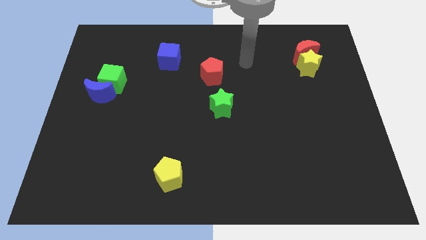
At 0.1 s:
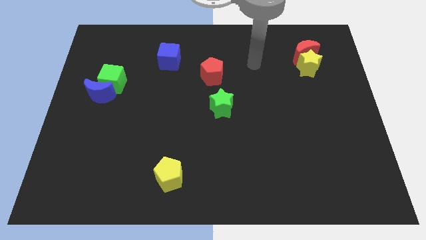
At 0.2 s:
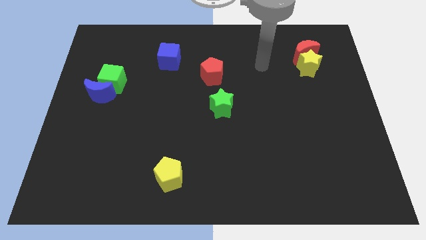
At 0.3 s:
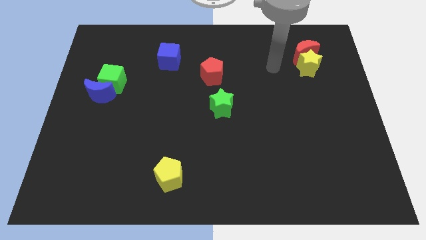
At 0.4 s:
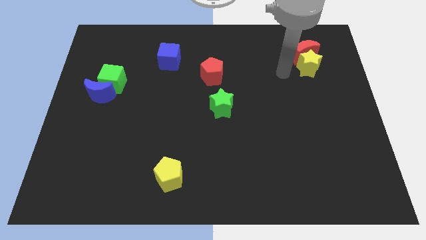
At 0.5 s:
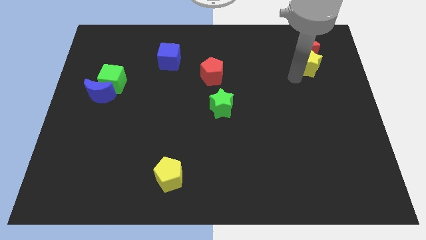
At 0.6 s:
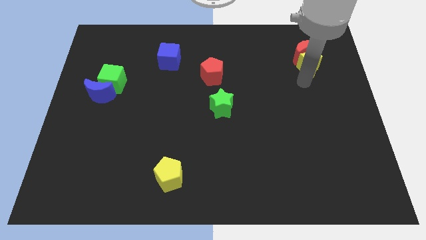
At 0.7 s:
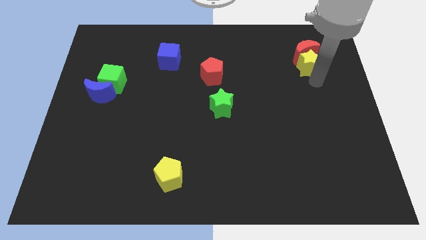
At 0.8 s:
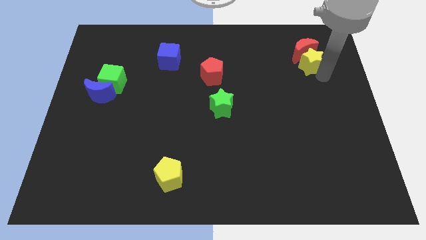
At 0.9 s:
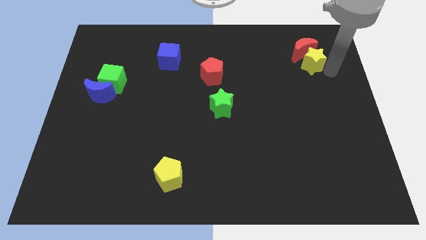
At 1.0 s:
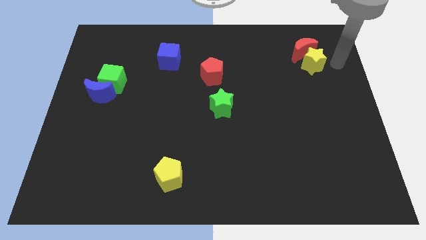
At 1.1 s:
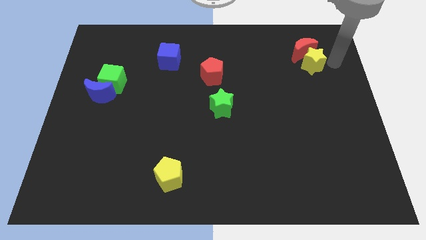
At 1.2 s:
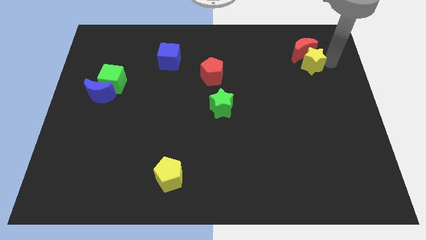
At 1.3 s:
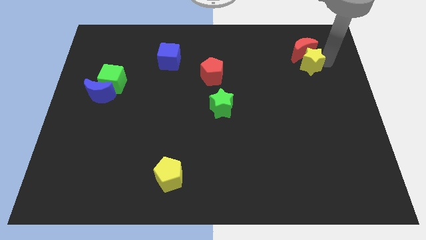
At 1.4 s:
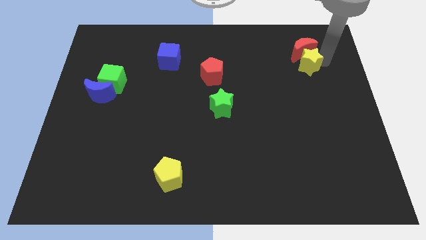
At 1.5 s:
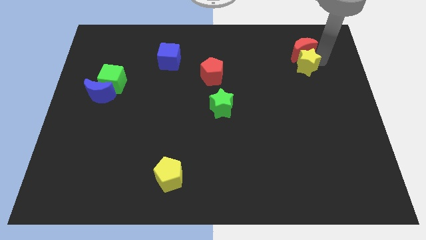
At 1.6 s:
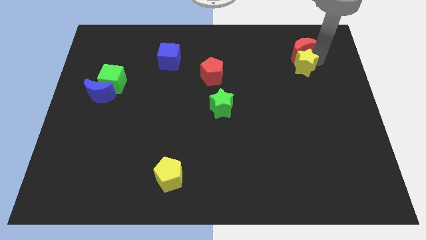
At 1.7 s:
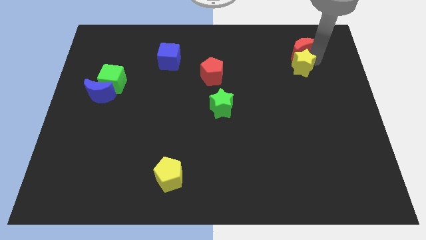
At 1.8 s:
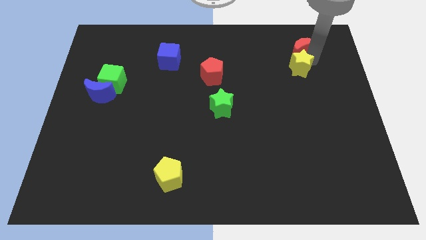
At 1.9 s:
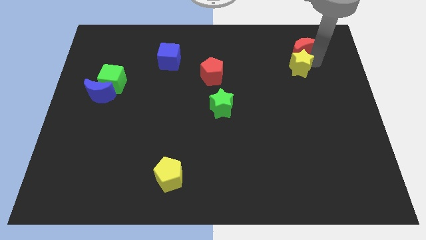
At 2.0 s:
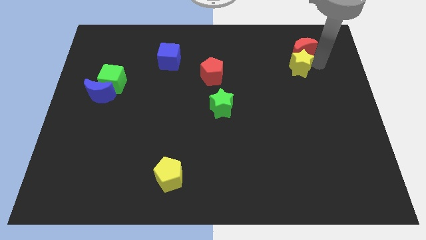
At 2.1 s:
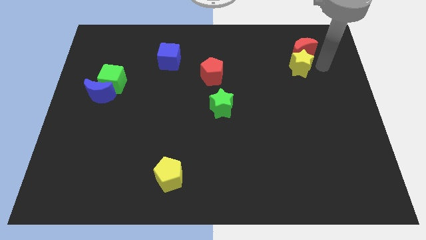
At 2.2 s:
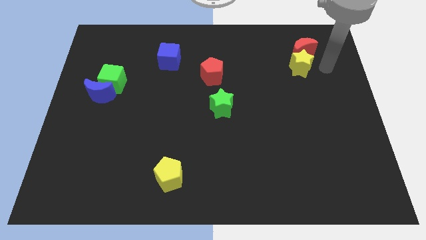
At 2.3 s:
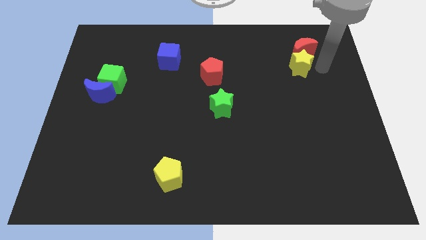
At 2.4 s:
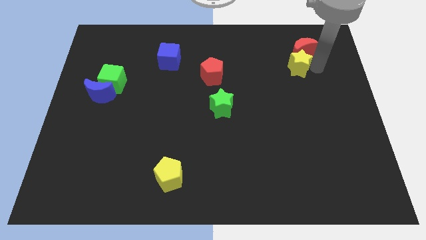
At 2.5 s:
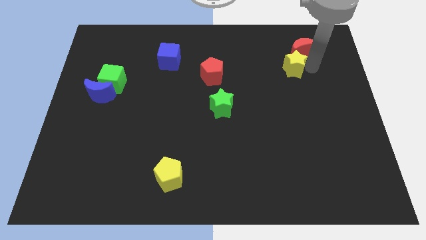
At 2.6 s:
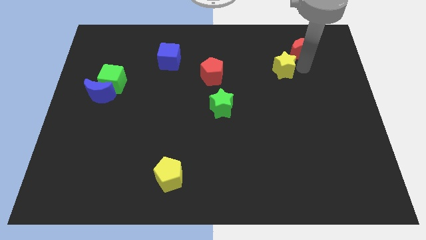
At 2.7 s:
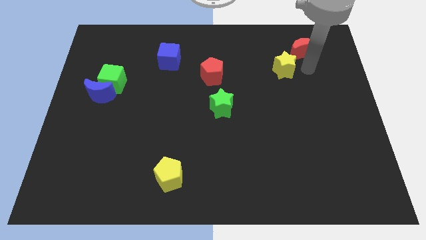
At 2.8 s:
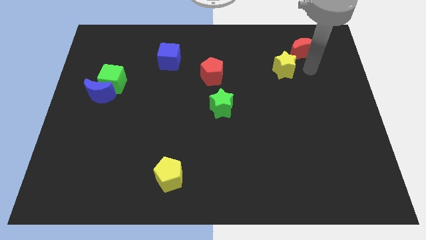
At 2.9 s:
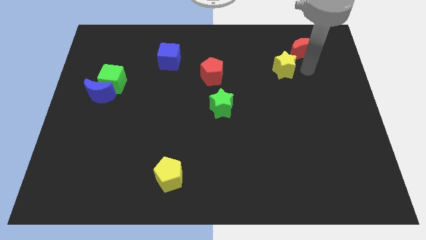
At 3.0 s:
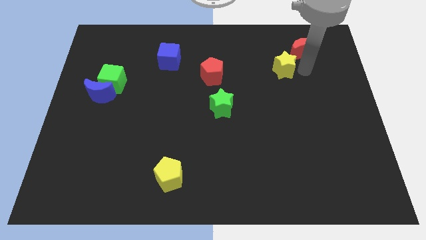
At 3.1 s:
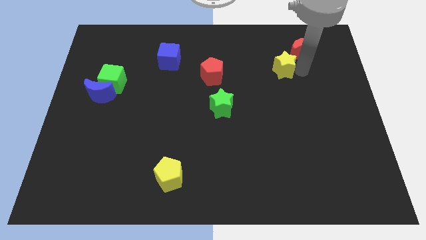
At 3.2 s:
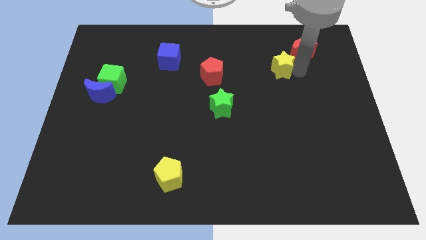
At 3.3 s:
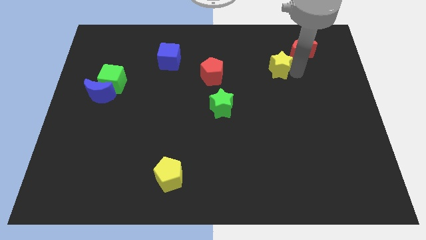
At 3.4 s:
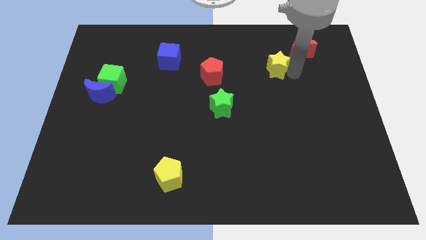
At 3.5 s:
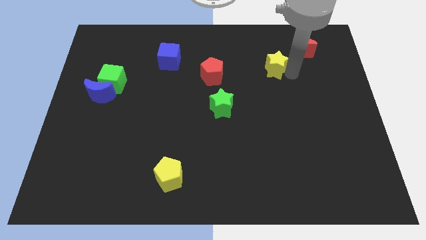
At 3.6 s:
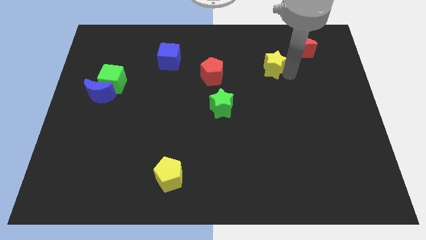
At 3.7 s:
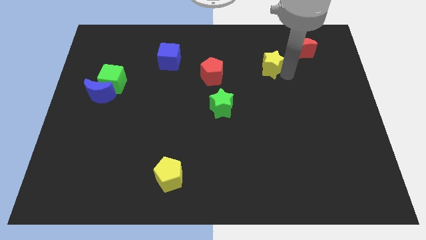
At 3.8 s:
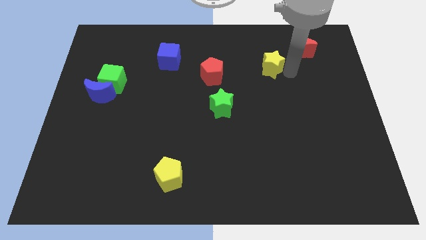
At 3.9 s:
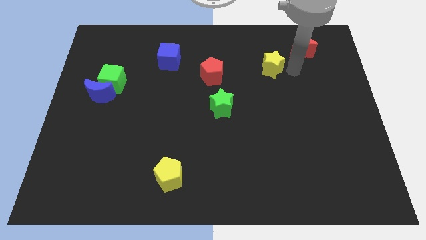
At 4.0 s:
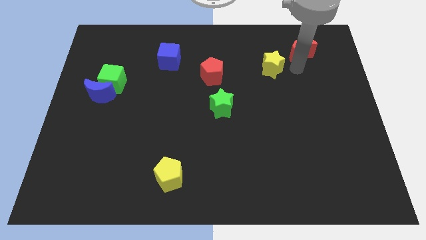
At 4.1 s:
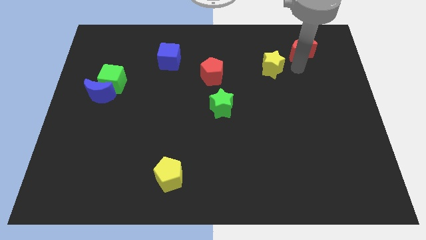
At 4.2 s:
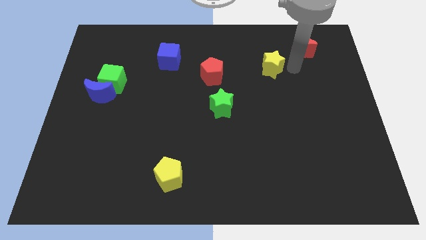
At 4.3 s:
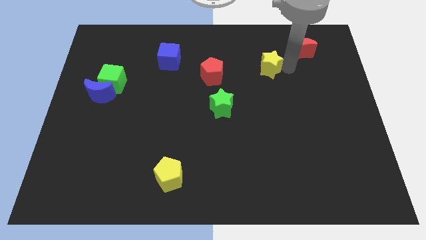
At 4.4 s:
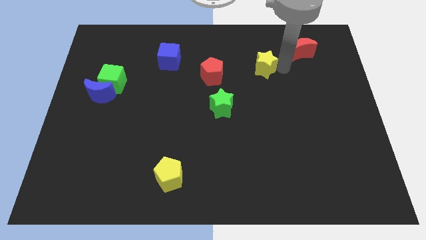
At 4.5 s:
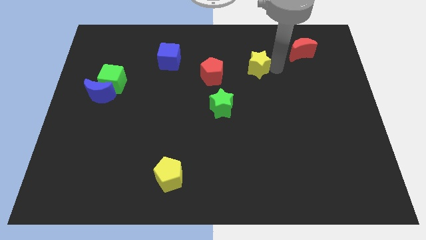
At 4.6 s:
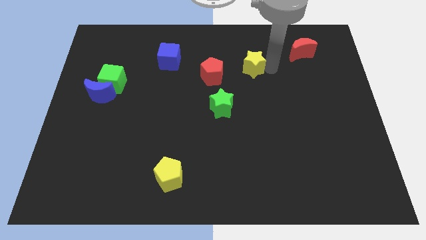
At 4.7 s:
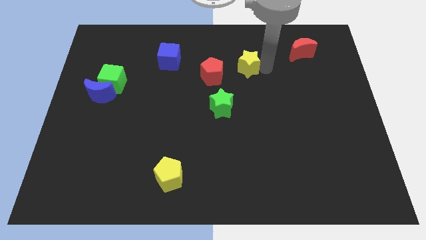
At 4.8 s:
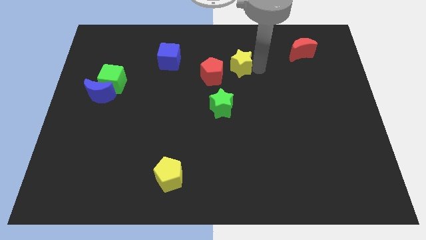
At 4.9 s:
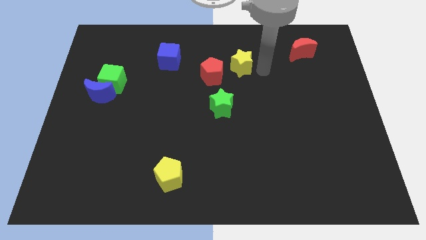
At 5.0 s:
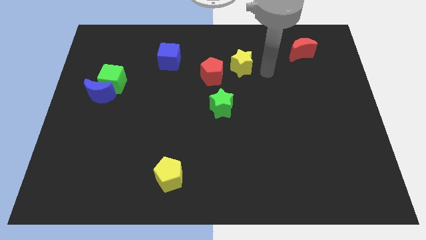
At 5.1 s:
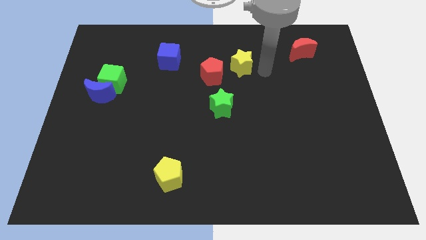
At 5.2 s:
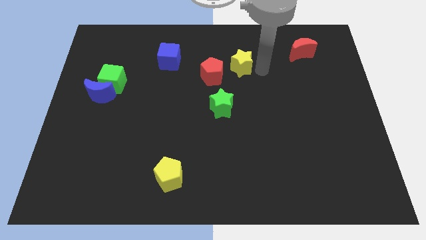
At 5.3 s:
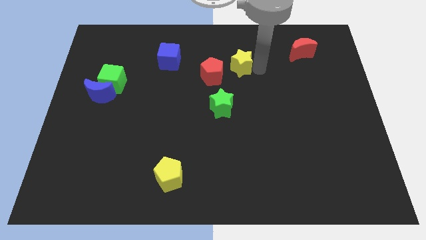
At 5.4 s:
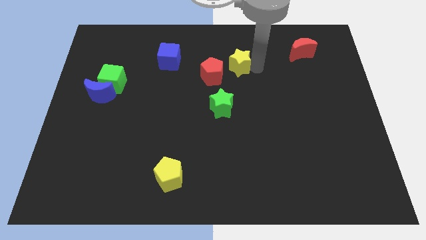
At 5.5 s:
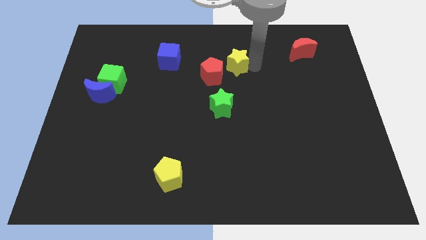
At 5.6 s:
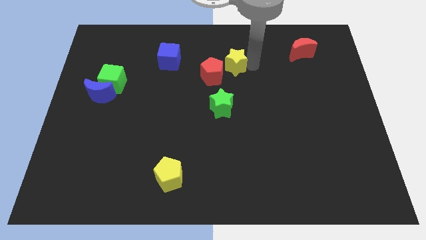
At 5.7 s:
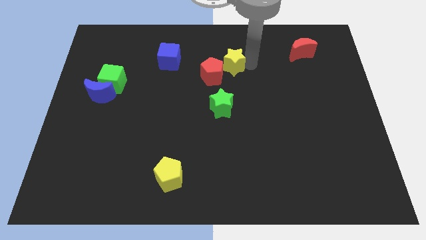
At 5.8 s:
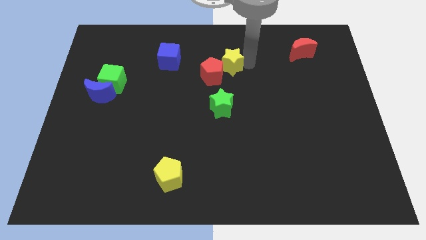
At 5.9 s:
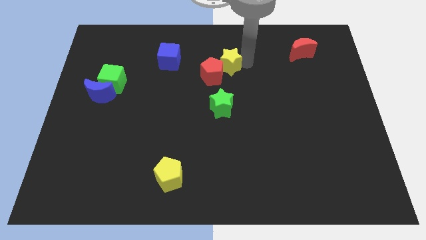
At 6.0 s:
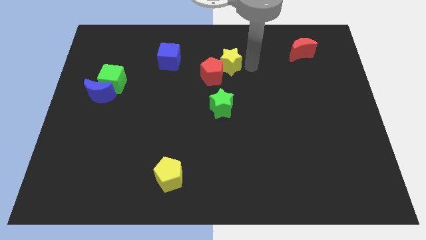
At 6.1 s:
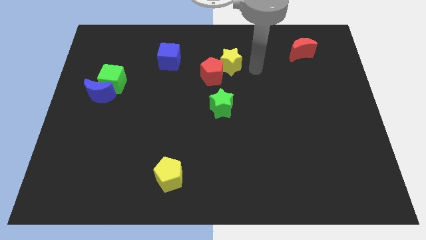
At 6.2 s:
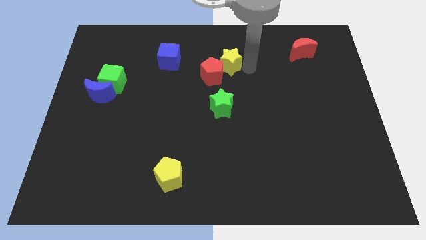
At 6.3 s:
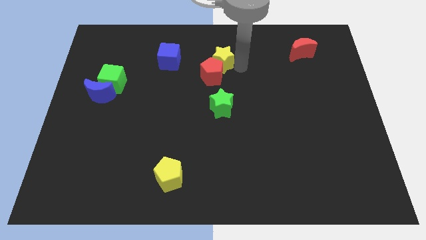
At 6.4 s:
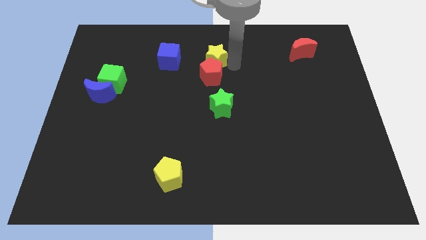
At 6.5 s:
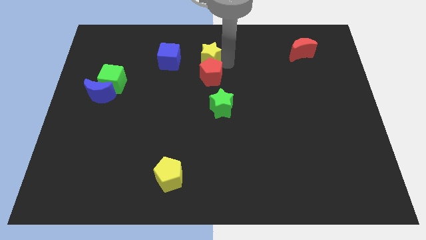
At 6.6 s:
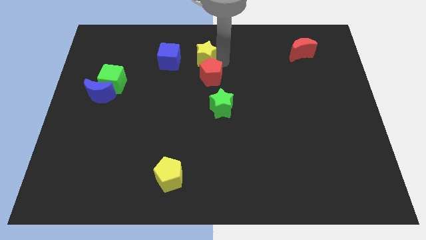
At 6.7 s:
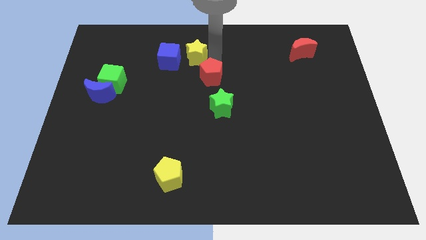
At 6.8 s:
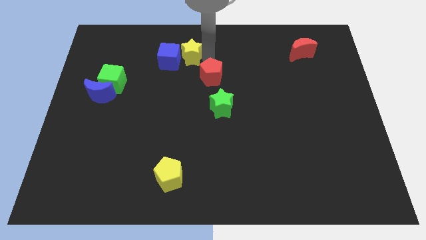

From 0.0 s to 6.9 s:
put the yellow star close to the blue cube
